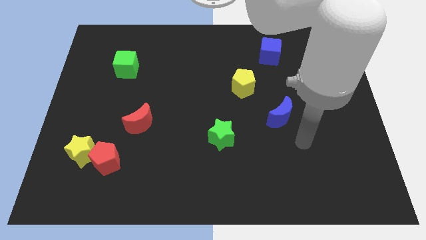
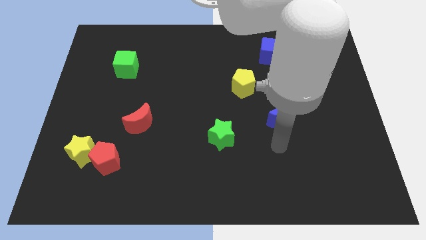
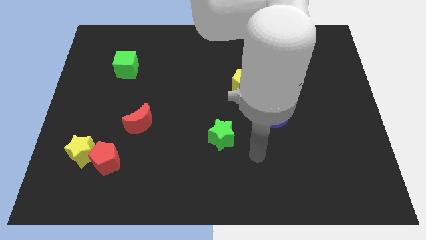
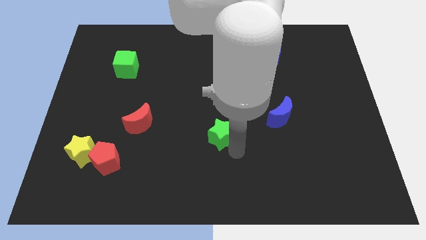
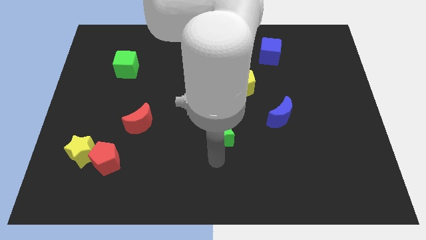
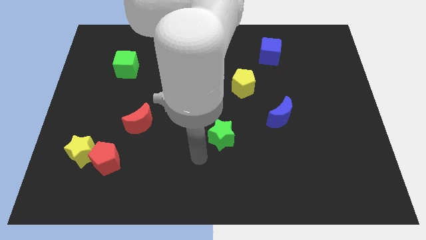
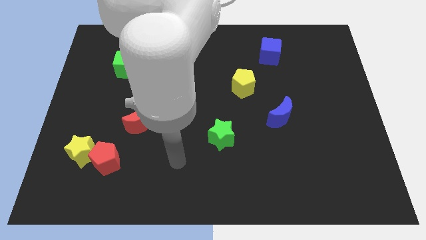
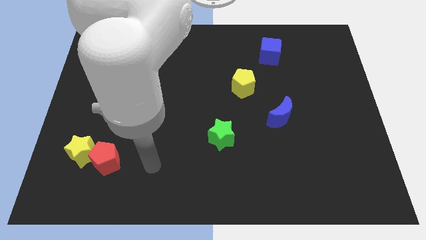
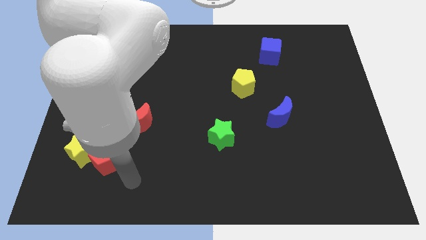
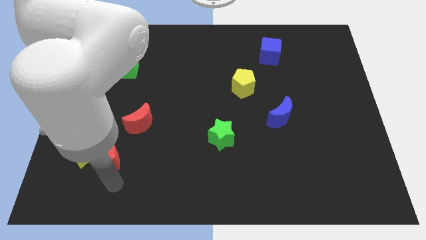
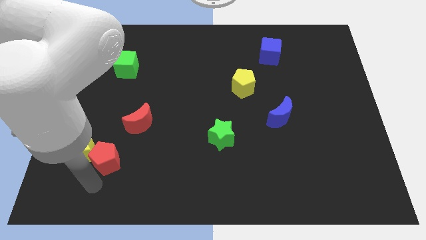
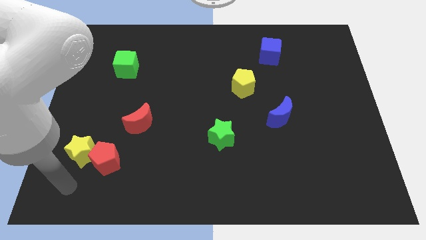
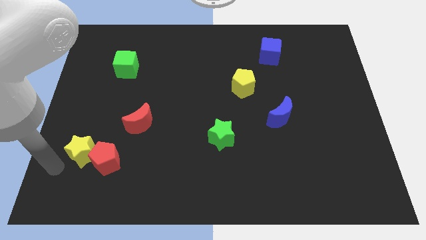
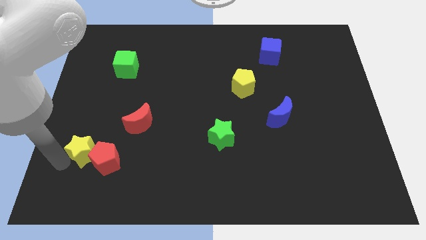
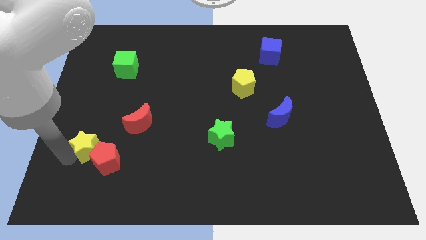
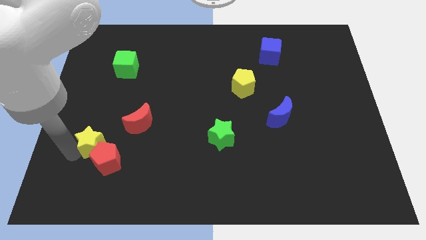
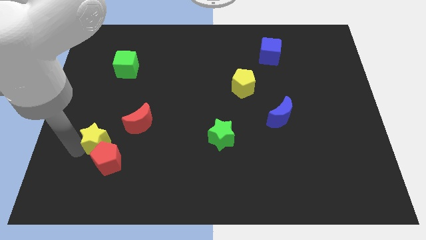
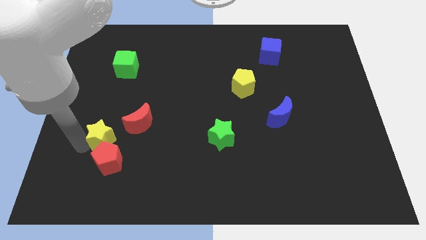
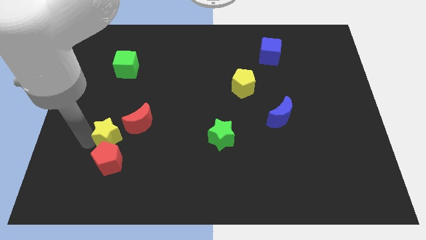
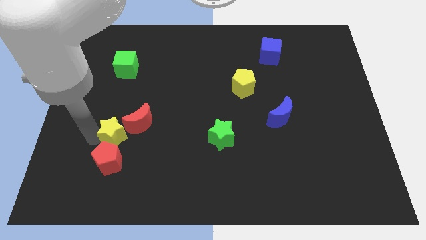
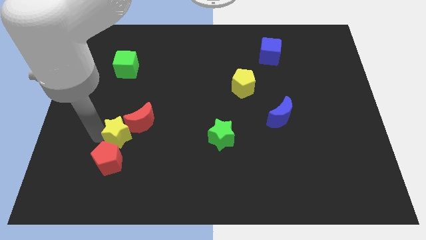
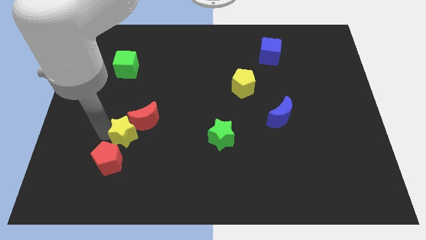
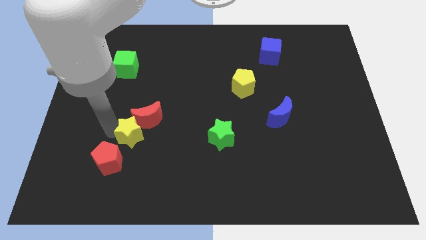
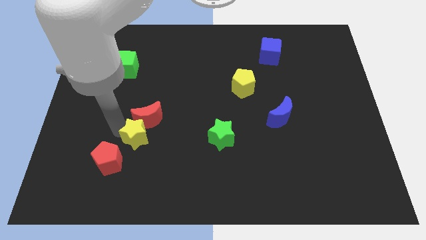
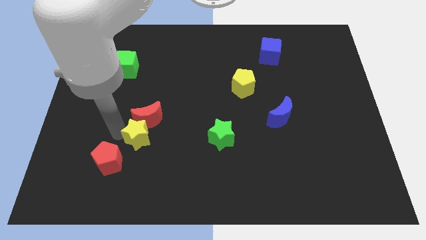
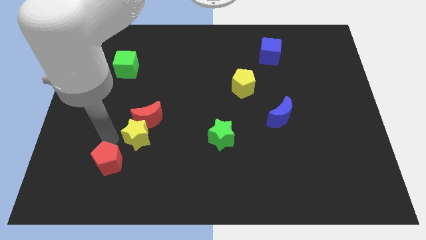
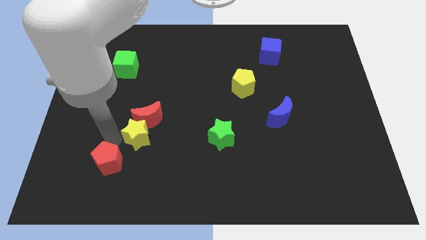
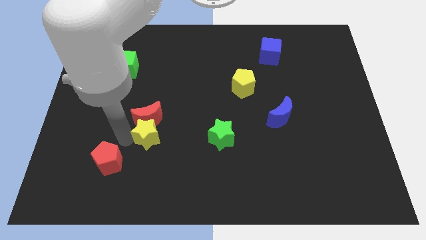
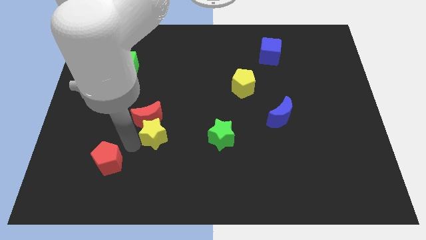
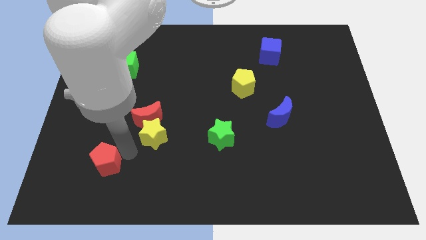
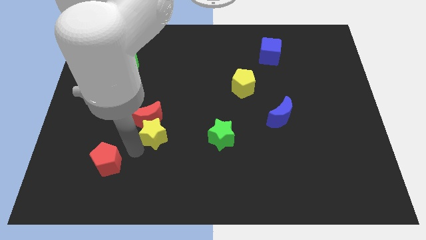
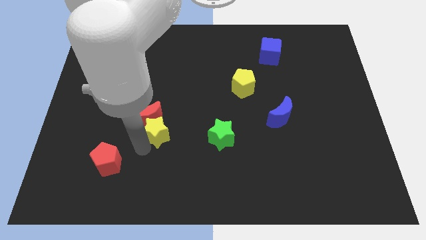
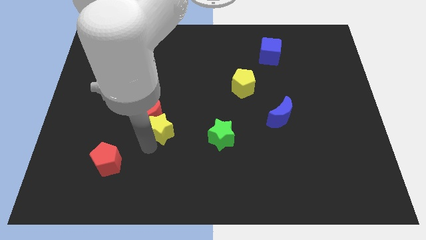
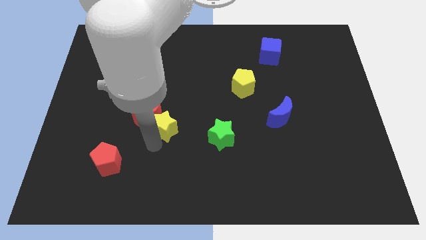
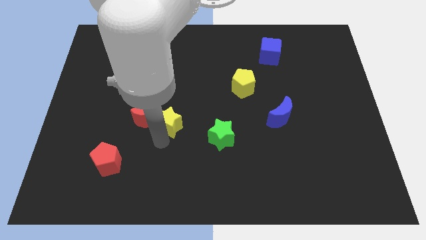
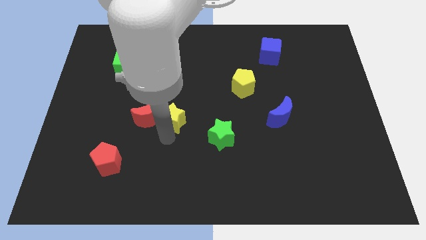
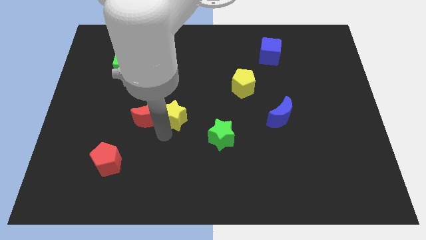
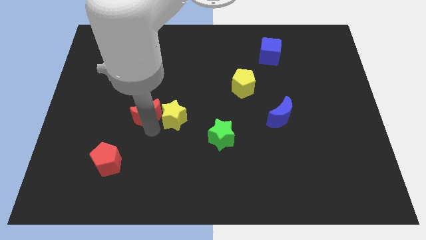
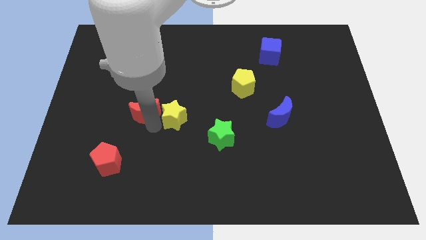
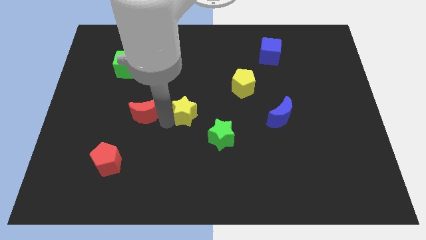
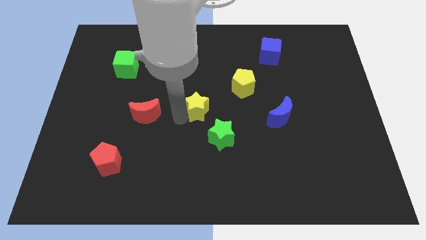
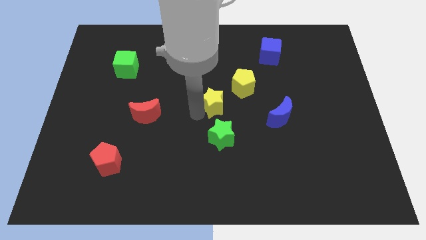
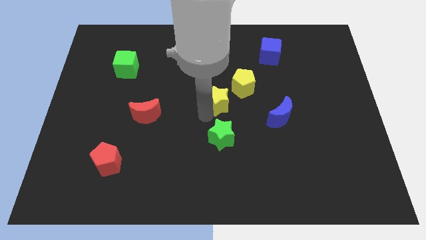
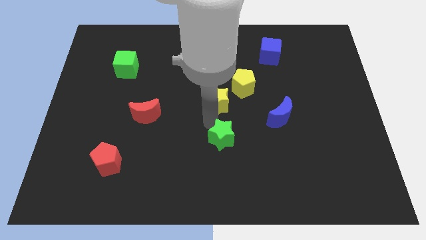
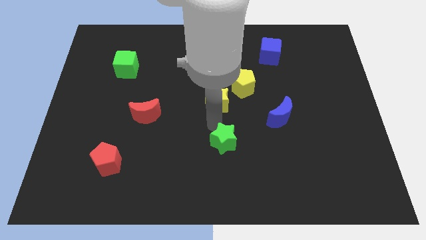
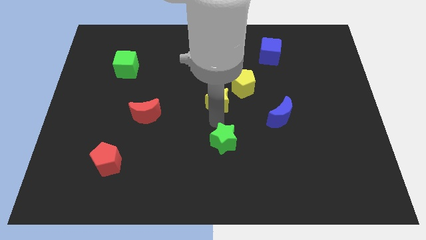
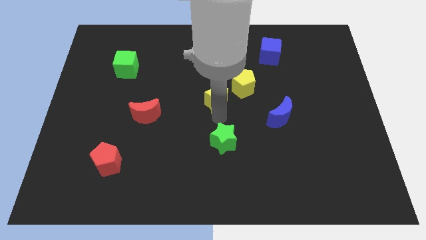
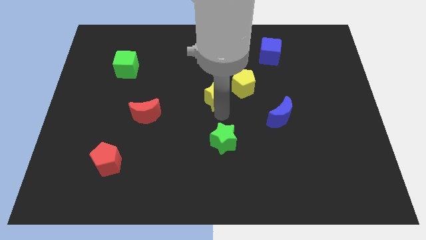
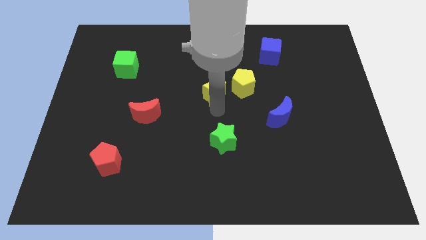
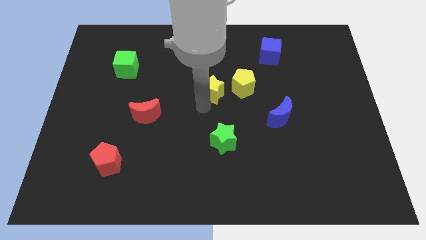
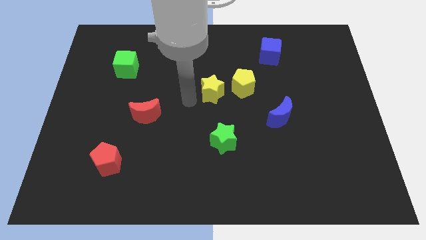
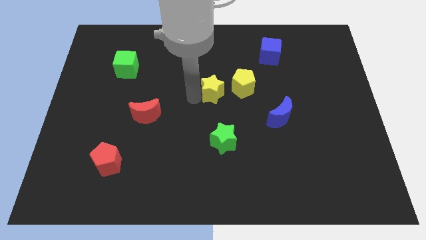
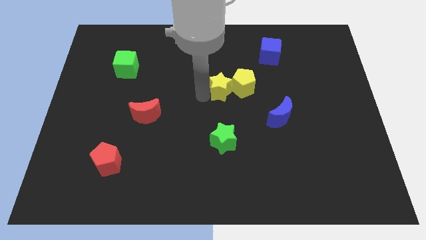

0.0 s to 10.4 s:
move the yellow star towards the yellow pentagon

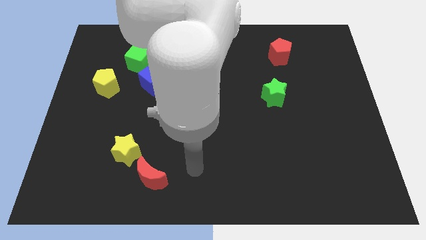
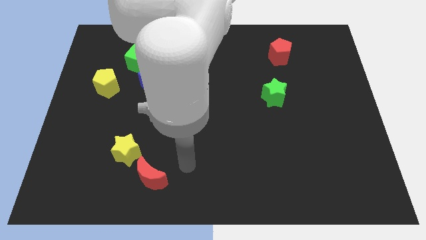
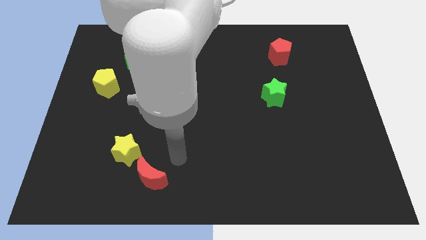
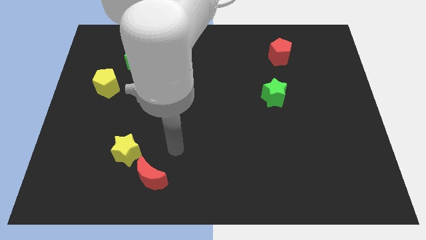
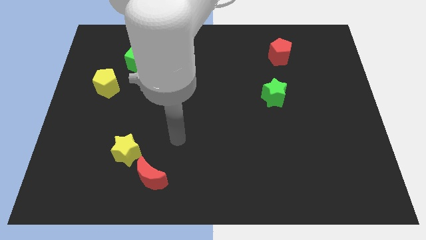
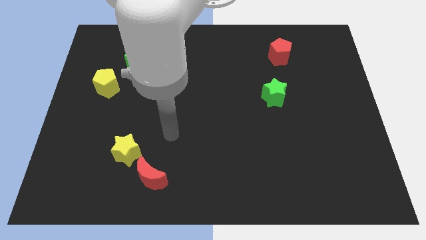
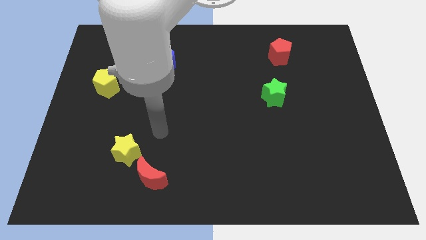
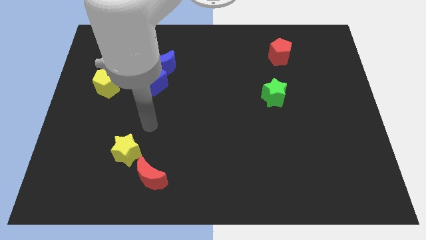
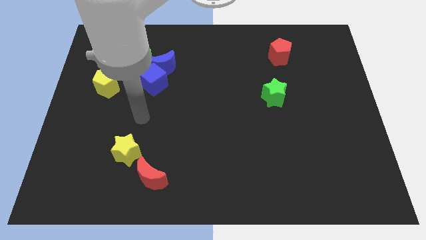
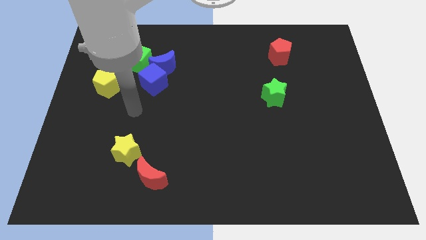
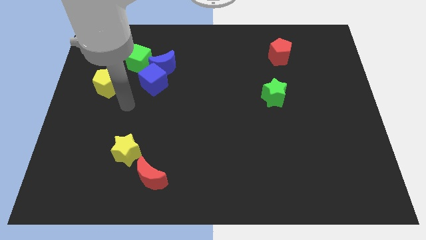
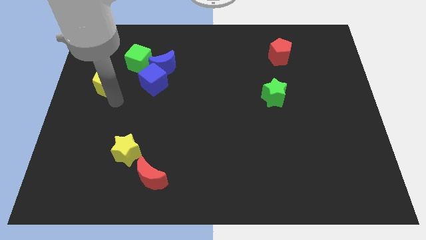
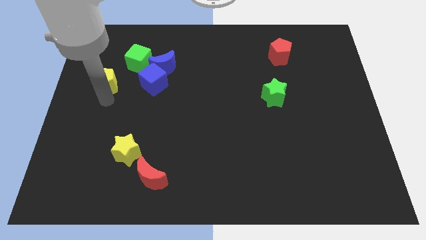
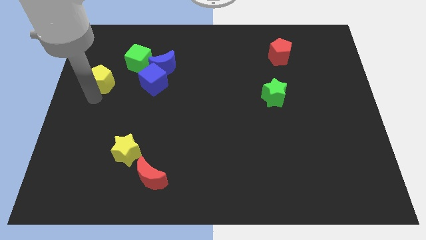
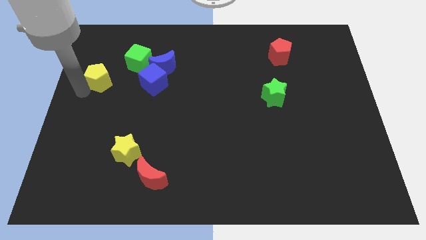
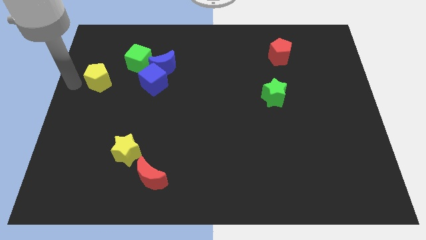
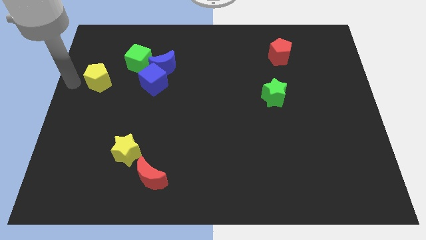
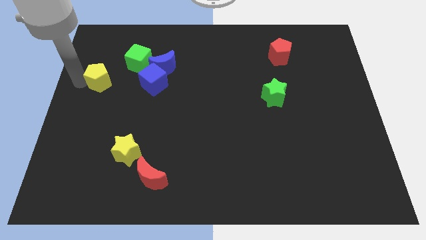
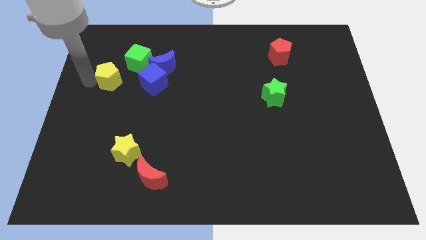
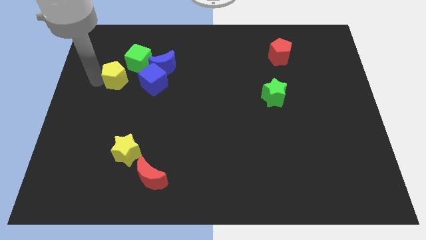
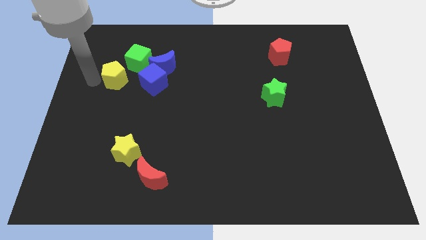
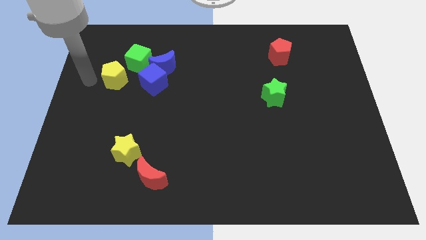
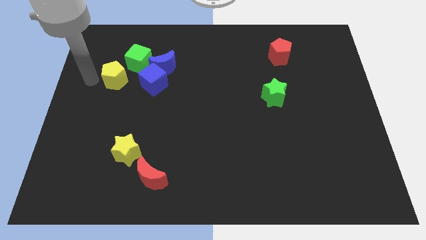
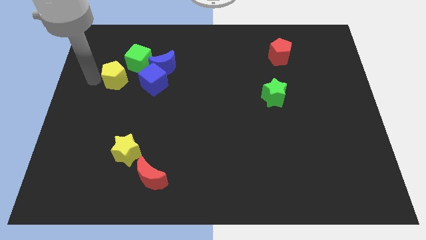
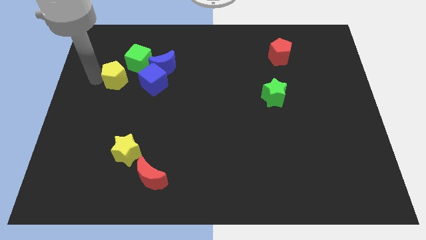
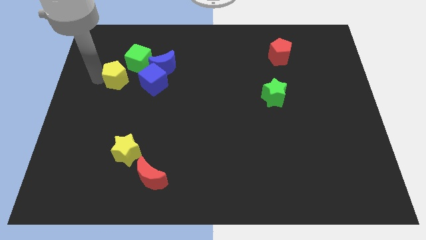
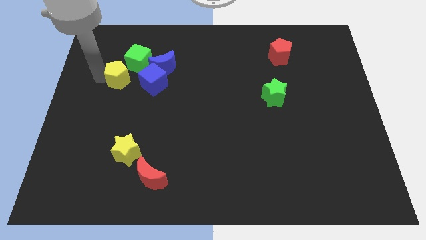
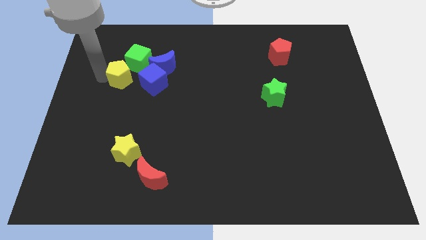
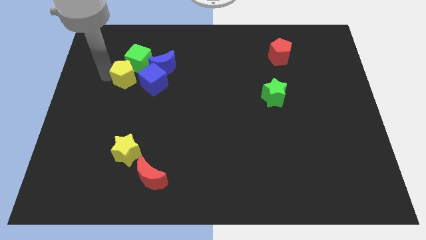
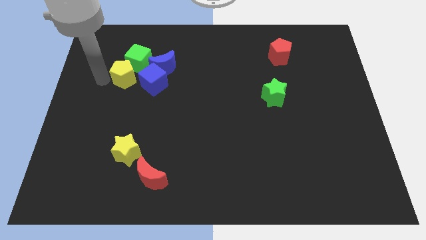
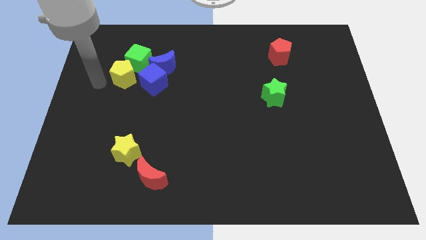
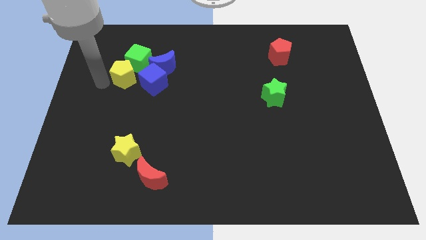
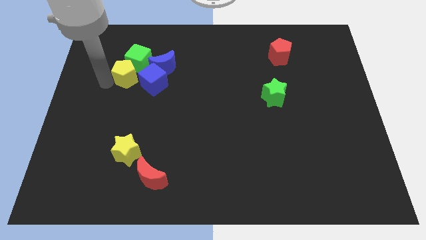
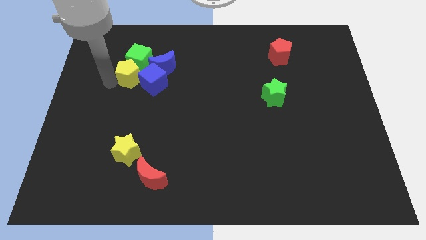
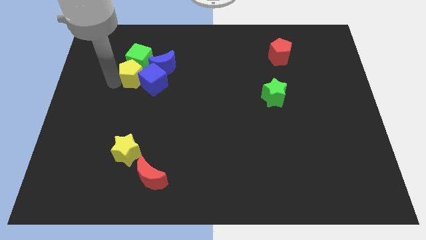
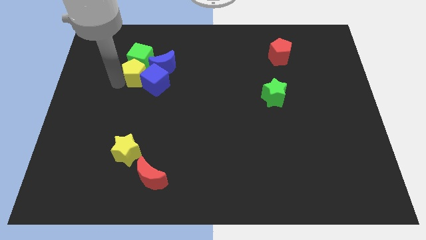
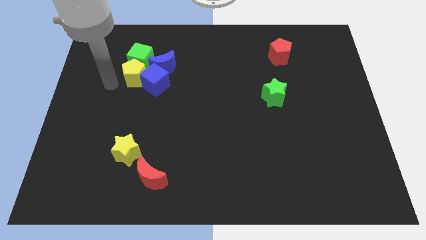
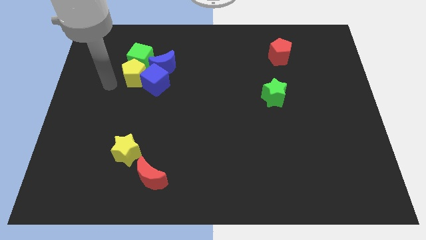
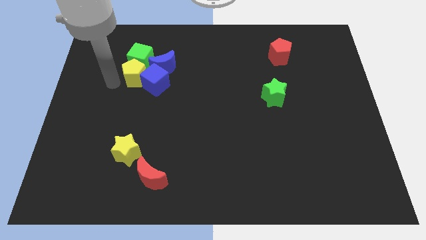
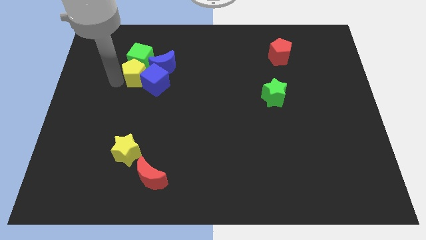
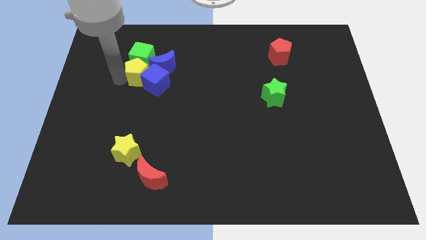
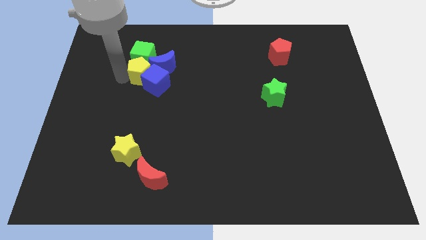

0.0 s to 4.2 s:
slide the yellow pentagon to the blue moon
